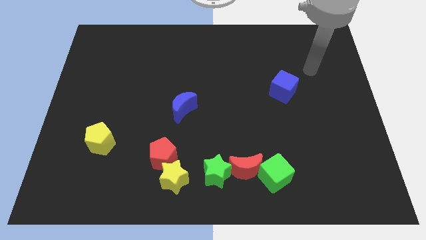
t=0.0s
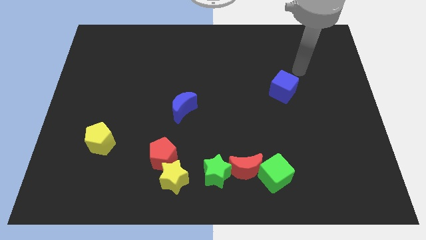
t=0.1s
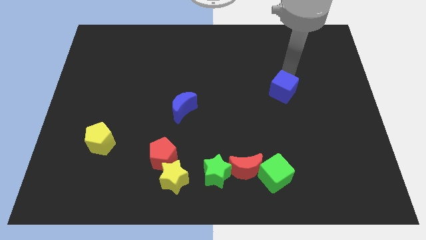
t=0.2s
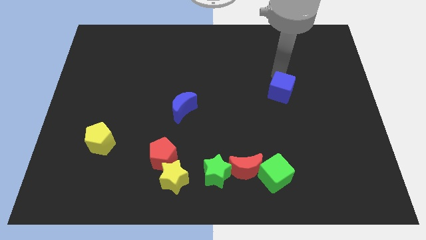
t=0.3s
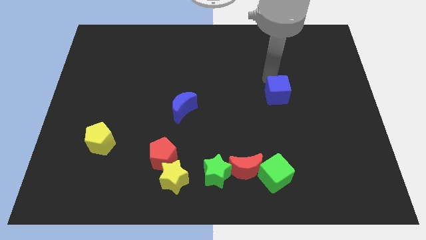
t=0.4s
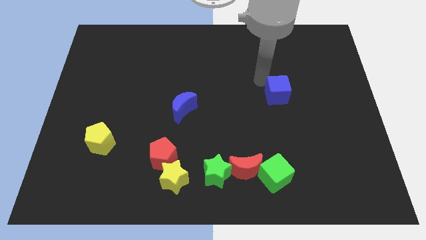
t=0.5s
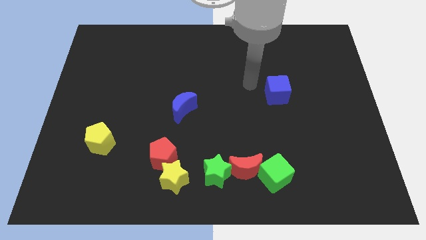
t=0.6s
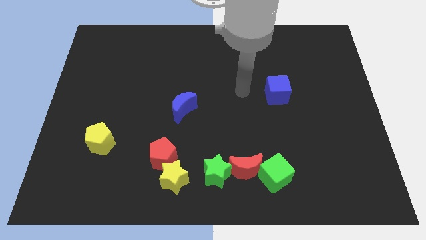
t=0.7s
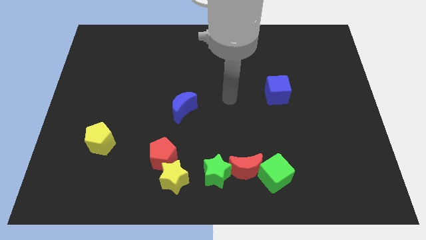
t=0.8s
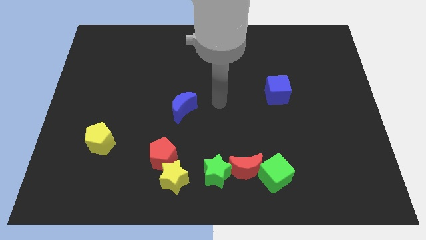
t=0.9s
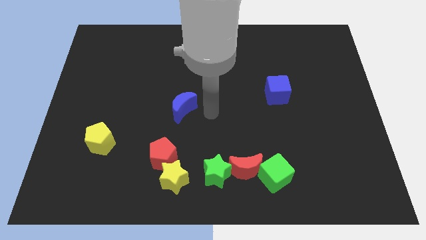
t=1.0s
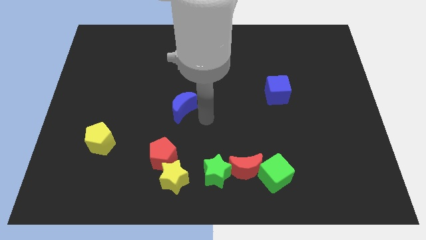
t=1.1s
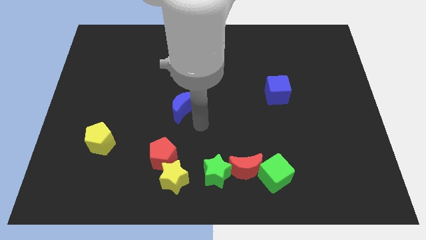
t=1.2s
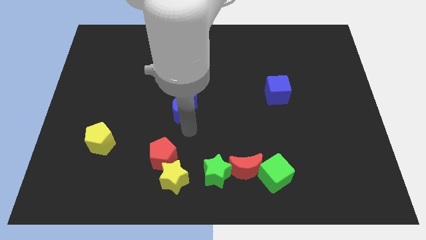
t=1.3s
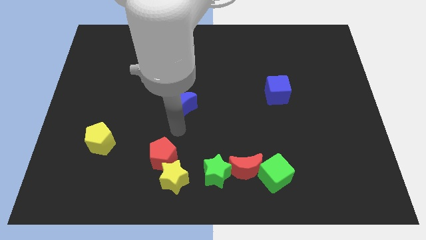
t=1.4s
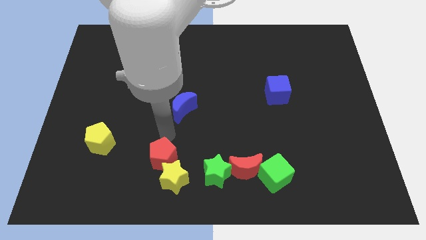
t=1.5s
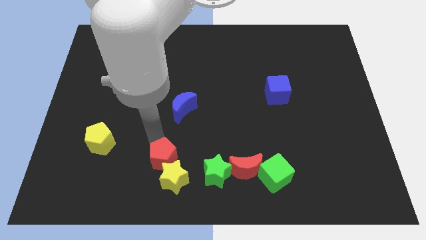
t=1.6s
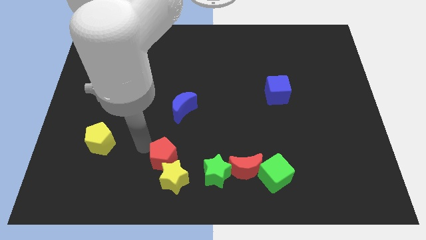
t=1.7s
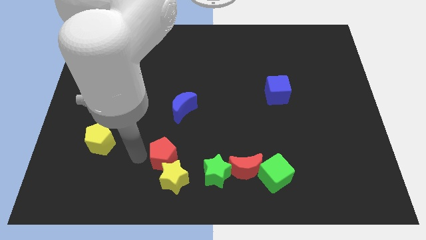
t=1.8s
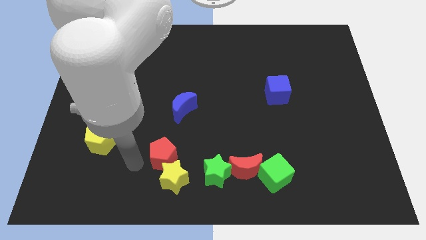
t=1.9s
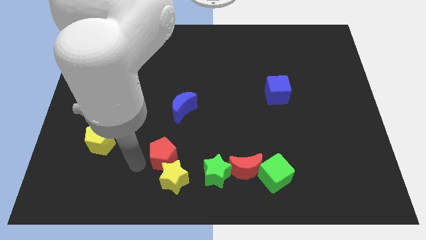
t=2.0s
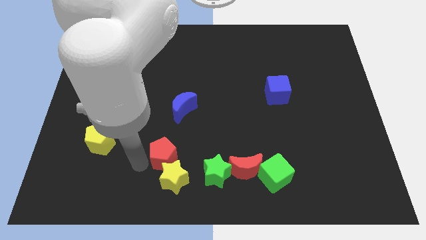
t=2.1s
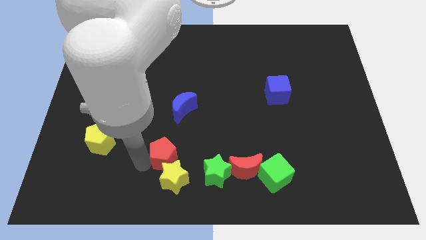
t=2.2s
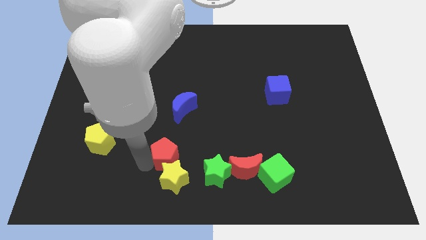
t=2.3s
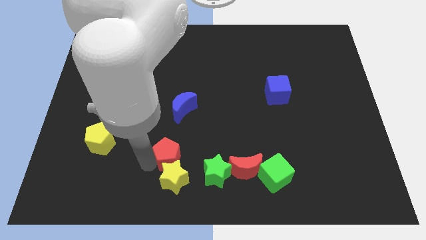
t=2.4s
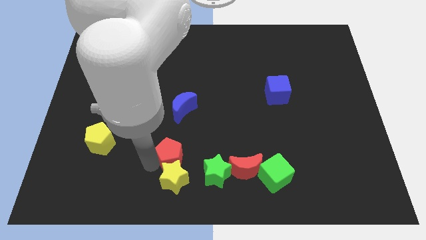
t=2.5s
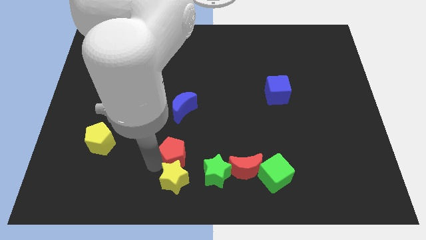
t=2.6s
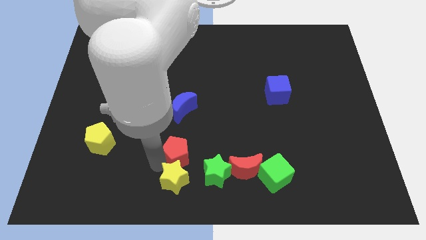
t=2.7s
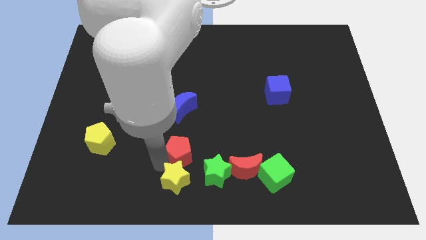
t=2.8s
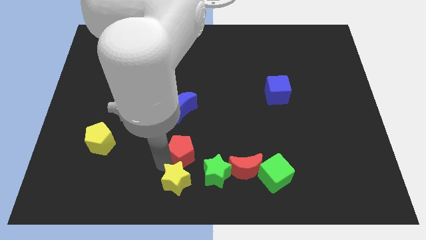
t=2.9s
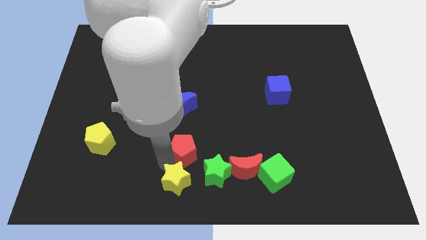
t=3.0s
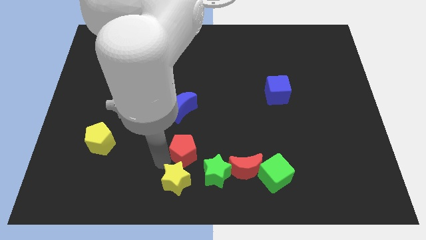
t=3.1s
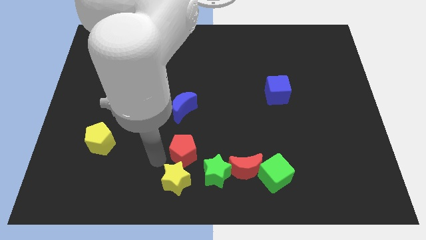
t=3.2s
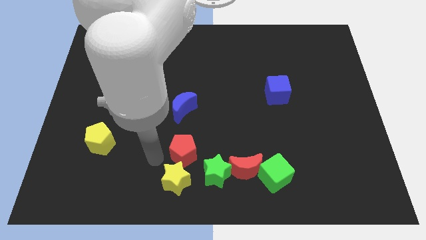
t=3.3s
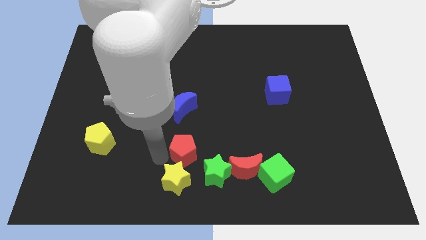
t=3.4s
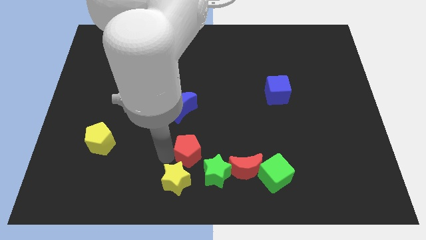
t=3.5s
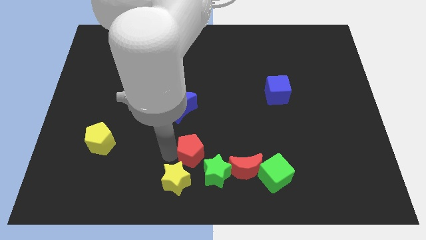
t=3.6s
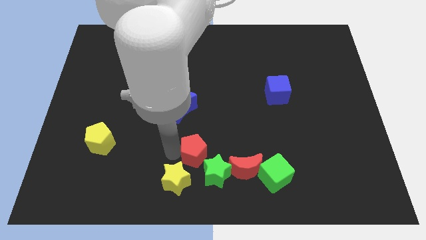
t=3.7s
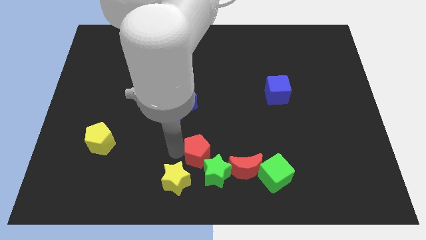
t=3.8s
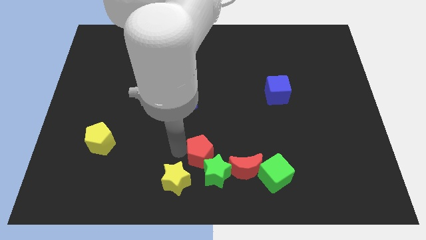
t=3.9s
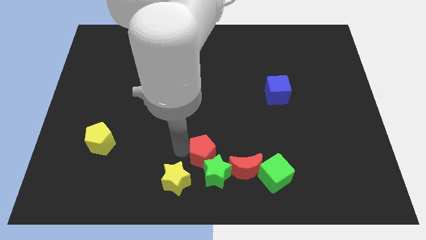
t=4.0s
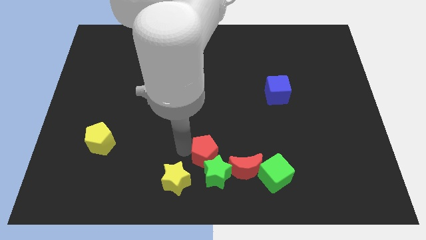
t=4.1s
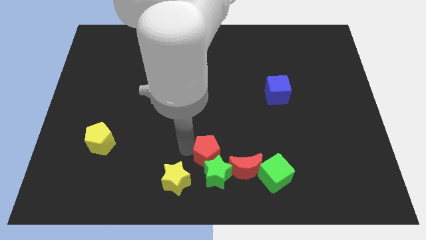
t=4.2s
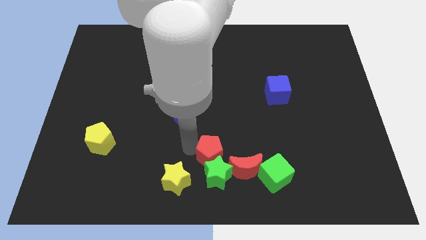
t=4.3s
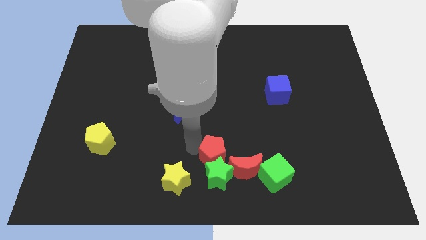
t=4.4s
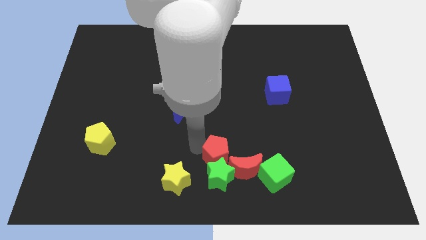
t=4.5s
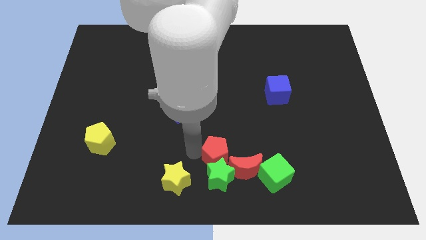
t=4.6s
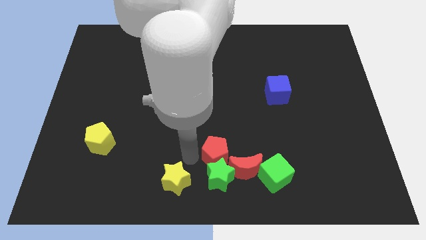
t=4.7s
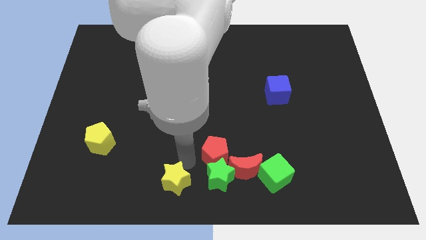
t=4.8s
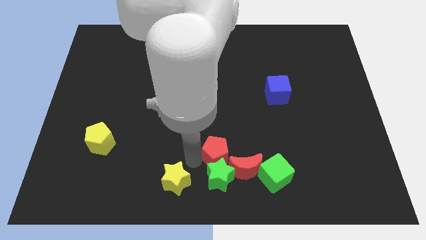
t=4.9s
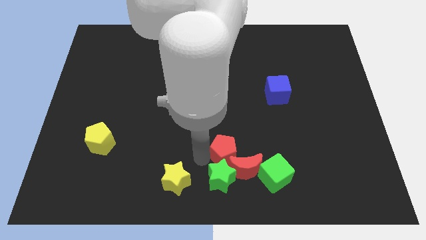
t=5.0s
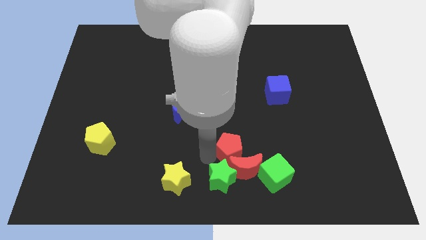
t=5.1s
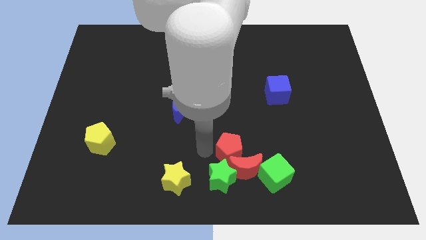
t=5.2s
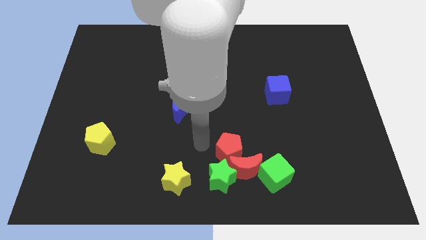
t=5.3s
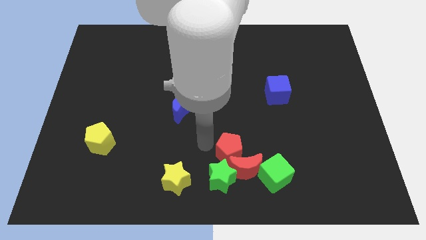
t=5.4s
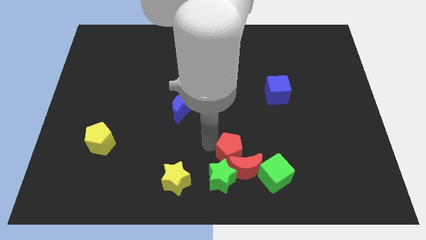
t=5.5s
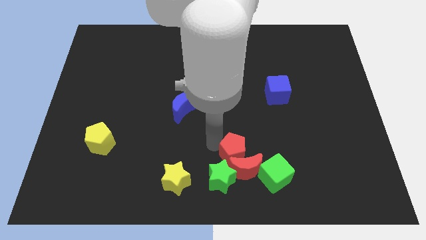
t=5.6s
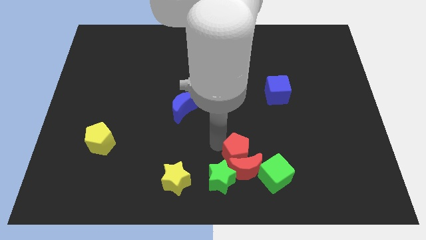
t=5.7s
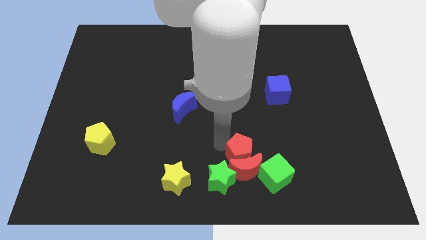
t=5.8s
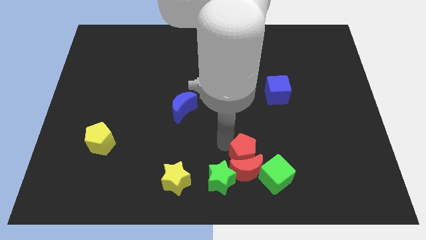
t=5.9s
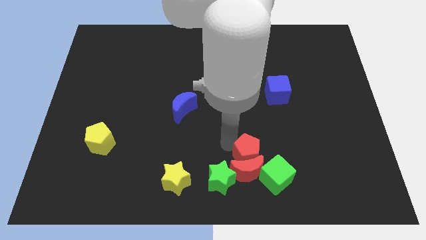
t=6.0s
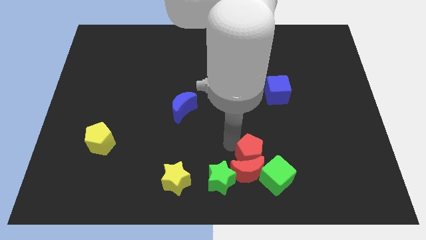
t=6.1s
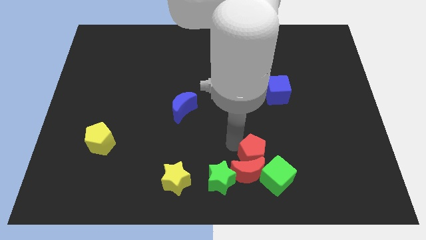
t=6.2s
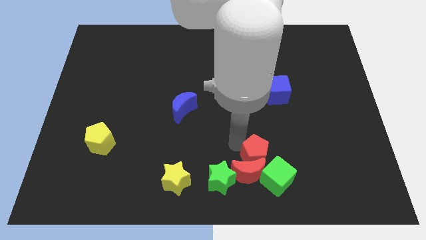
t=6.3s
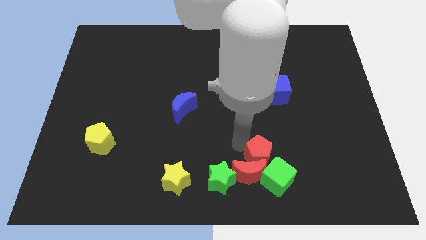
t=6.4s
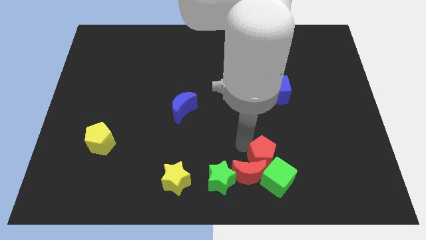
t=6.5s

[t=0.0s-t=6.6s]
move the red pentagon to the green cube
